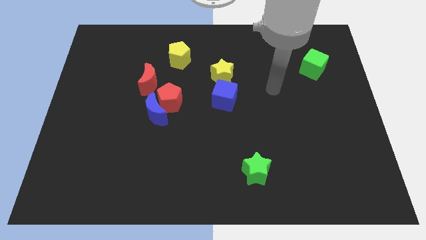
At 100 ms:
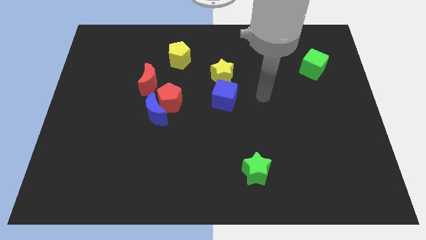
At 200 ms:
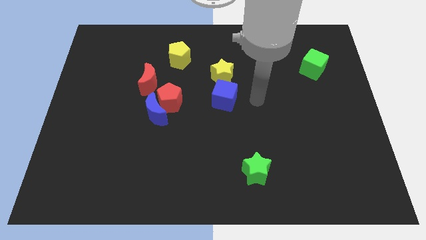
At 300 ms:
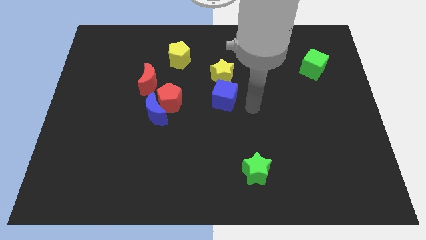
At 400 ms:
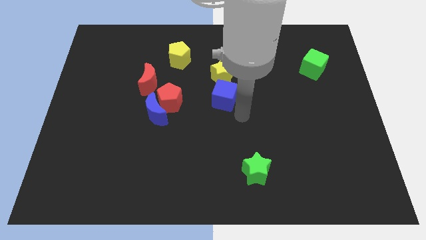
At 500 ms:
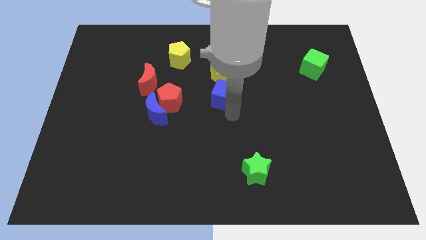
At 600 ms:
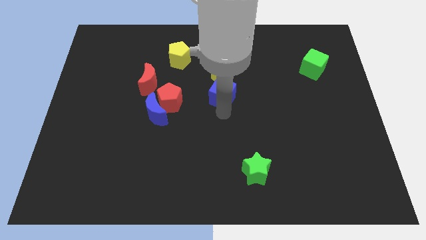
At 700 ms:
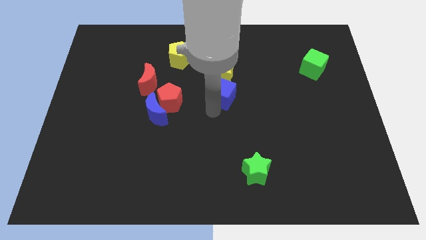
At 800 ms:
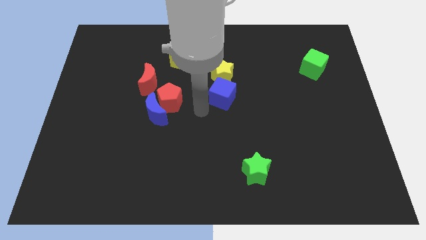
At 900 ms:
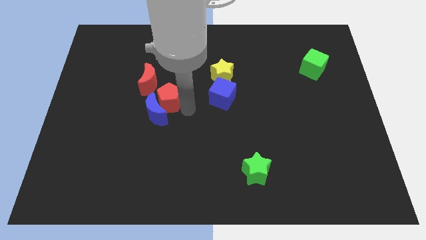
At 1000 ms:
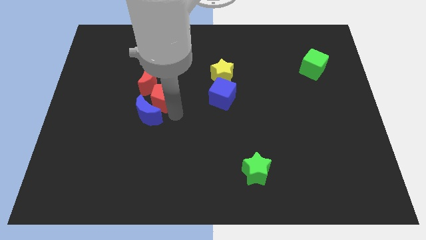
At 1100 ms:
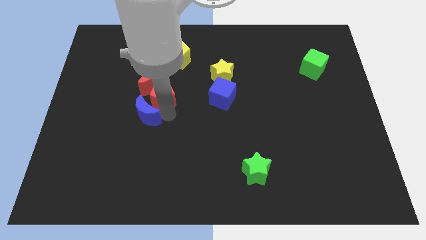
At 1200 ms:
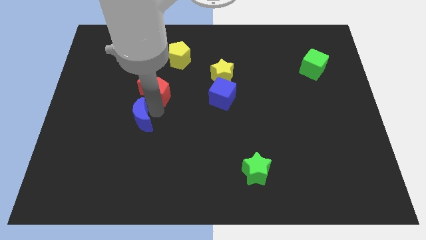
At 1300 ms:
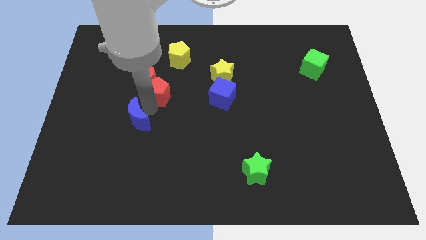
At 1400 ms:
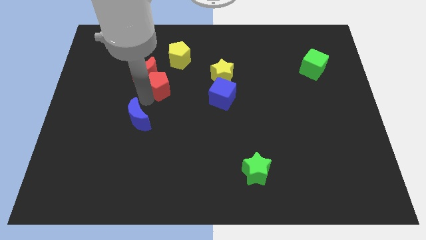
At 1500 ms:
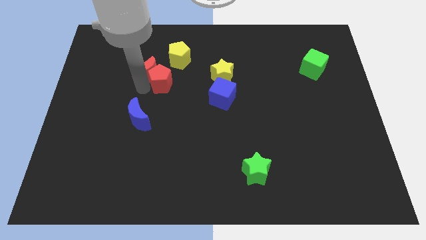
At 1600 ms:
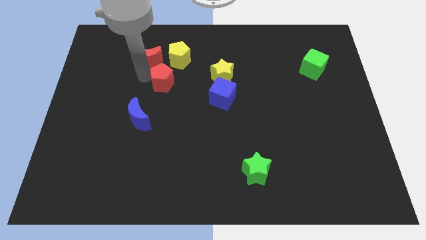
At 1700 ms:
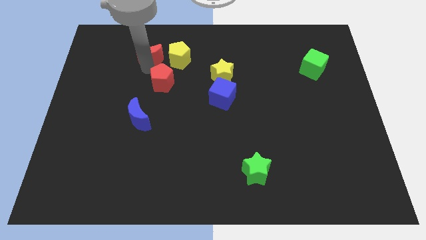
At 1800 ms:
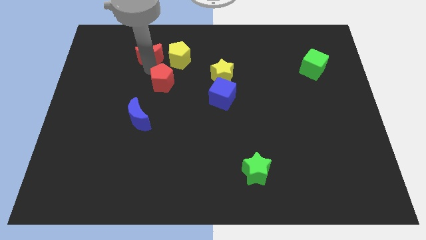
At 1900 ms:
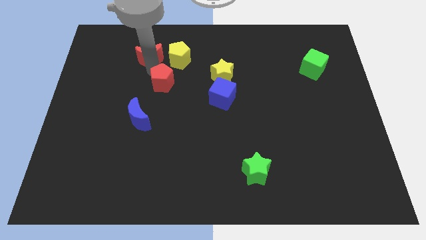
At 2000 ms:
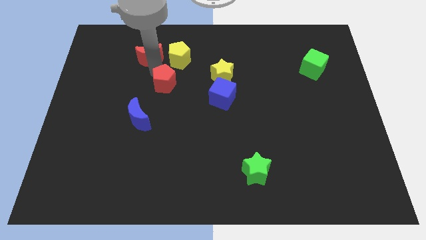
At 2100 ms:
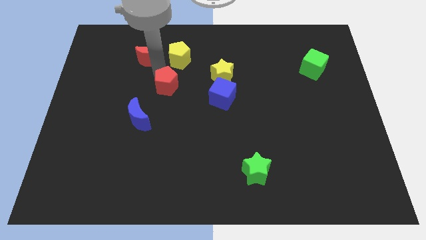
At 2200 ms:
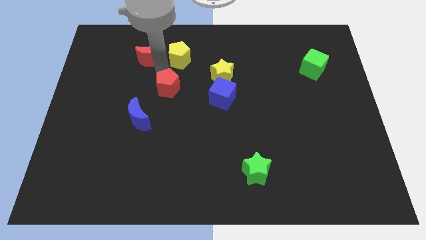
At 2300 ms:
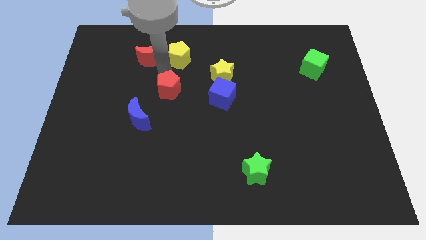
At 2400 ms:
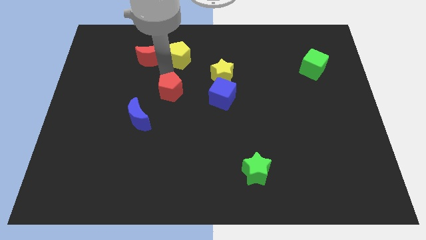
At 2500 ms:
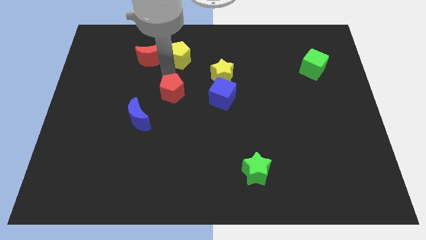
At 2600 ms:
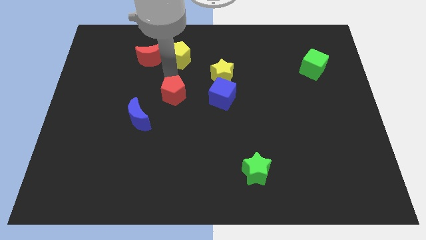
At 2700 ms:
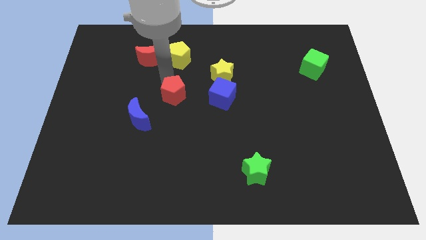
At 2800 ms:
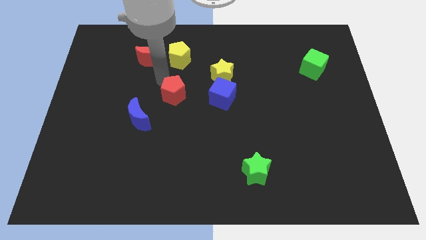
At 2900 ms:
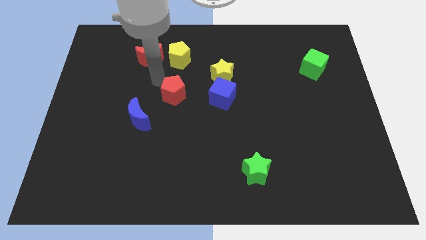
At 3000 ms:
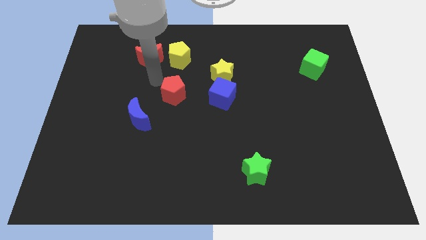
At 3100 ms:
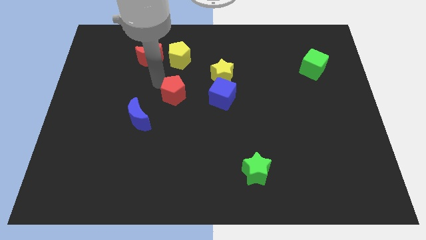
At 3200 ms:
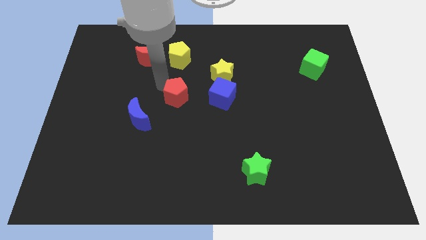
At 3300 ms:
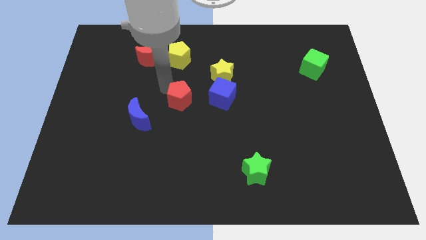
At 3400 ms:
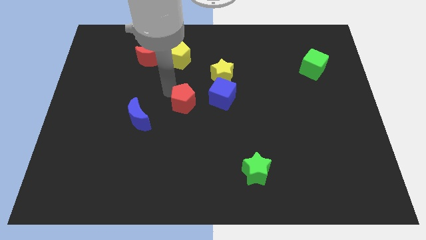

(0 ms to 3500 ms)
move the red pentagon away from the blue moon and red moon

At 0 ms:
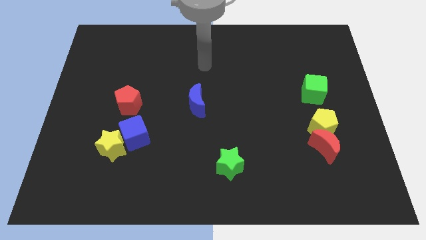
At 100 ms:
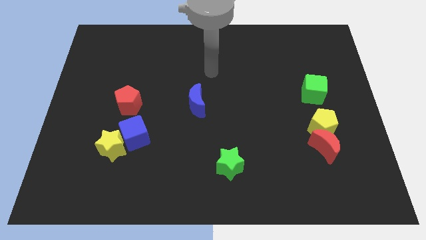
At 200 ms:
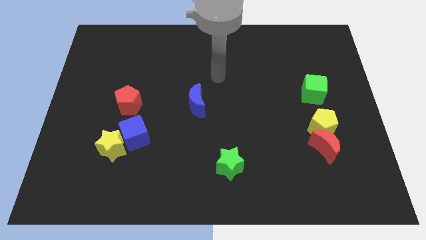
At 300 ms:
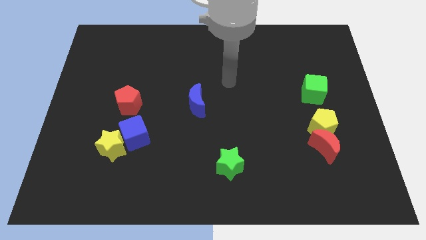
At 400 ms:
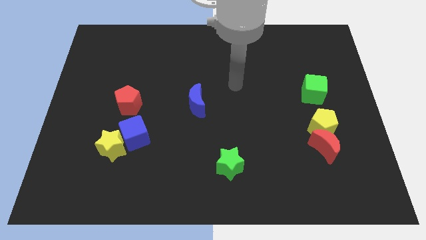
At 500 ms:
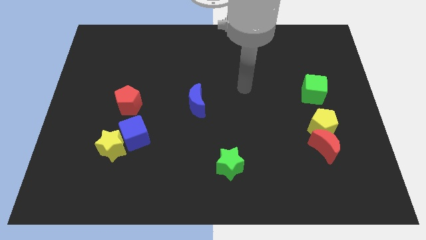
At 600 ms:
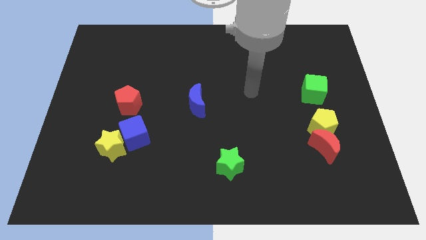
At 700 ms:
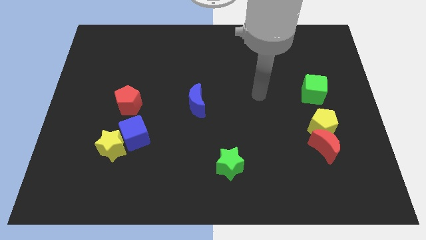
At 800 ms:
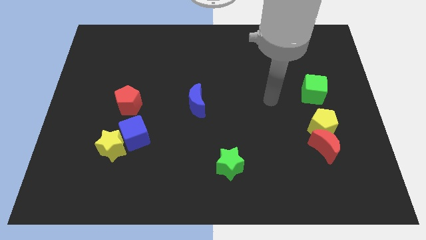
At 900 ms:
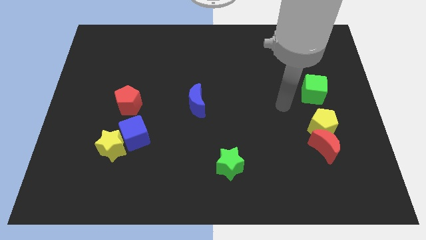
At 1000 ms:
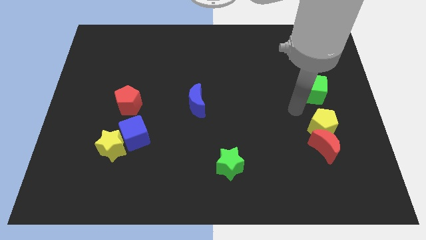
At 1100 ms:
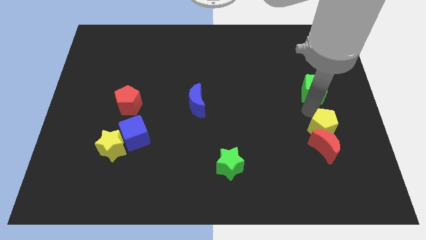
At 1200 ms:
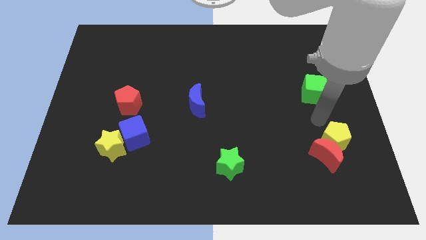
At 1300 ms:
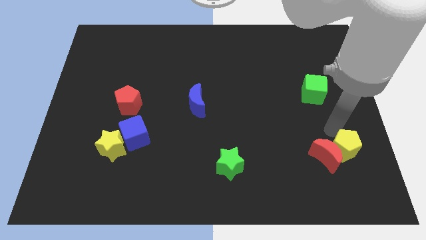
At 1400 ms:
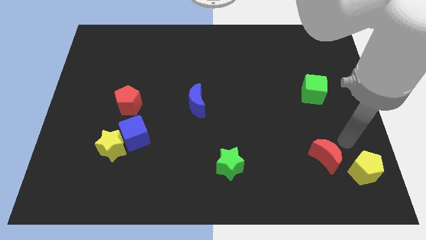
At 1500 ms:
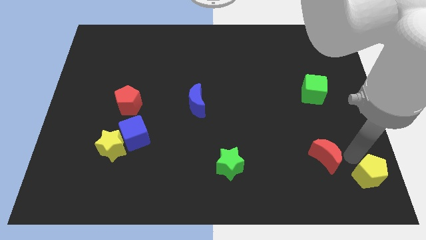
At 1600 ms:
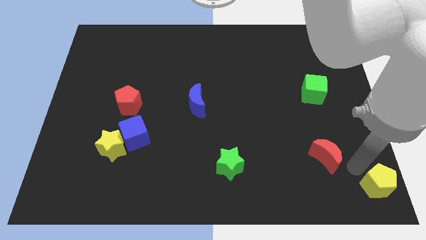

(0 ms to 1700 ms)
separate the red moon from the yellow pentagon

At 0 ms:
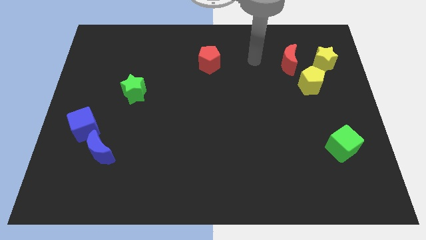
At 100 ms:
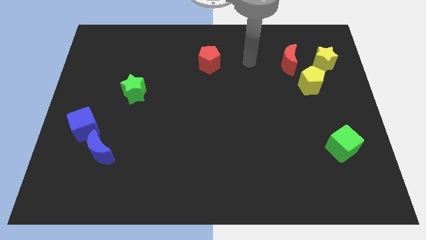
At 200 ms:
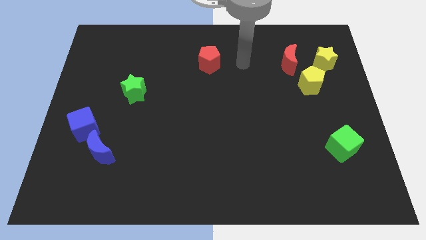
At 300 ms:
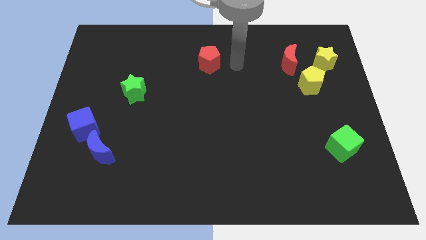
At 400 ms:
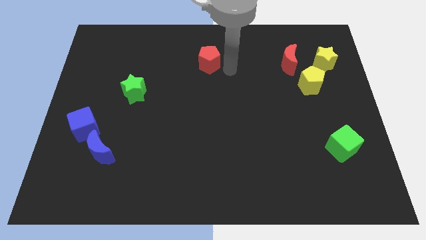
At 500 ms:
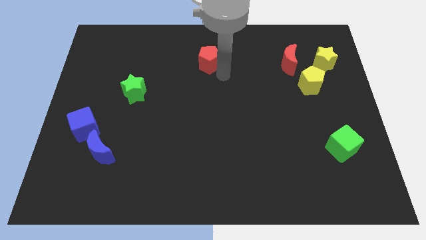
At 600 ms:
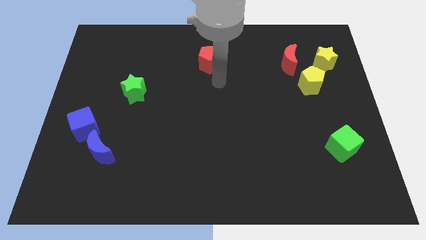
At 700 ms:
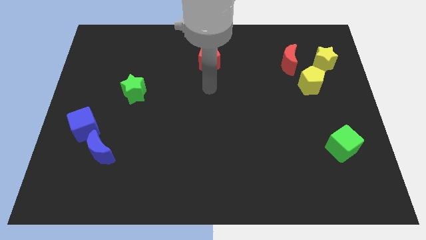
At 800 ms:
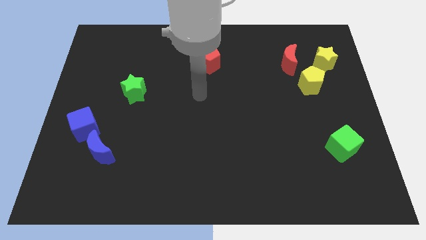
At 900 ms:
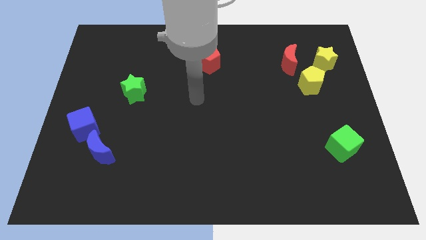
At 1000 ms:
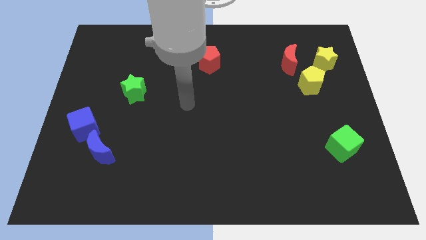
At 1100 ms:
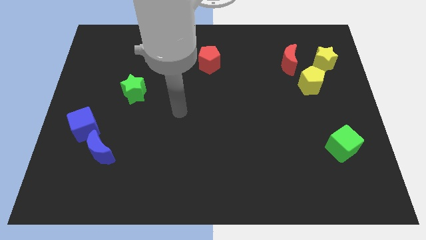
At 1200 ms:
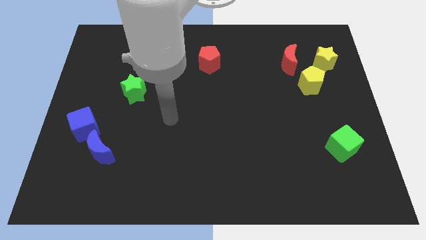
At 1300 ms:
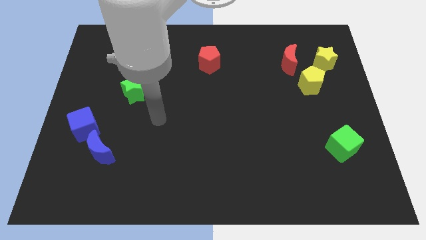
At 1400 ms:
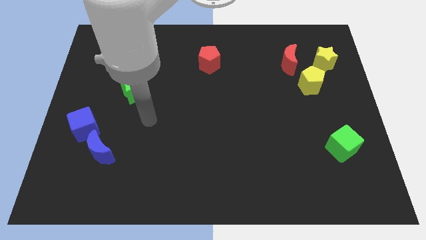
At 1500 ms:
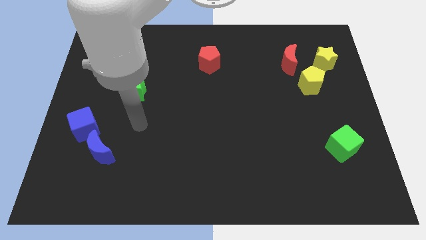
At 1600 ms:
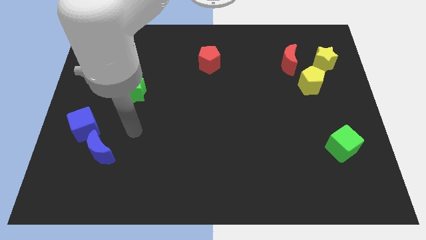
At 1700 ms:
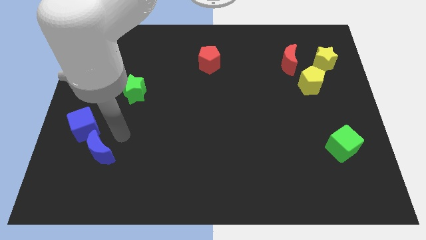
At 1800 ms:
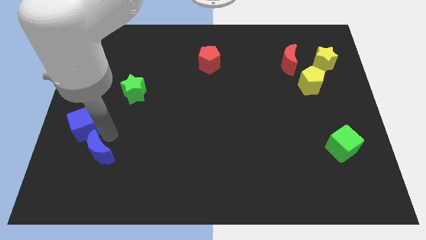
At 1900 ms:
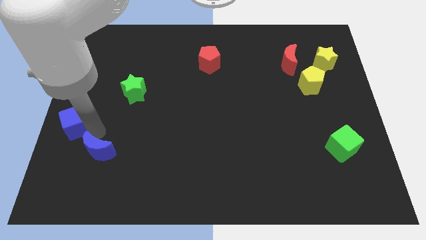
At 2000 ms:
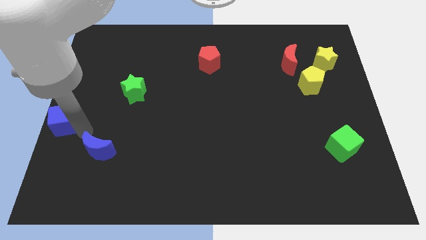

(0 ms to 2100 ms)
separate the blue moon from the blue cube

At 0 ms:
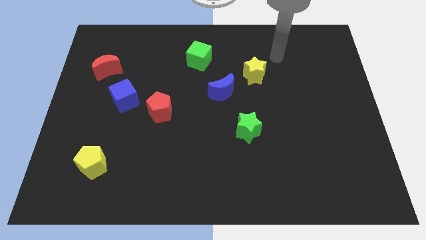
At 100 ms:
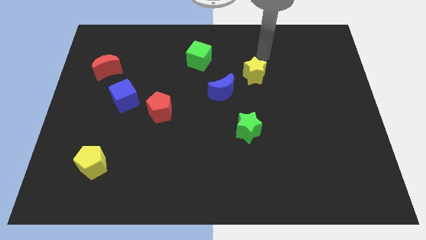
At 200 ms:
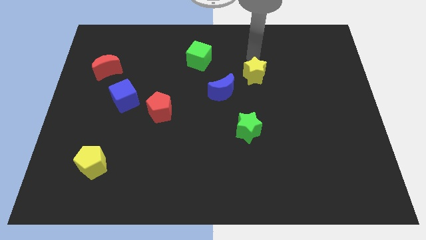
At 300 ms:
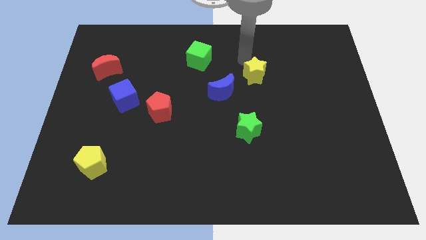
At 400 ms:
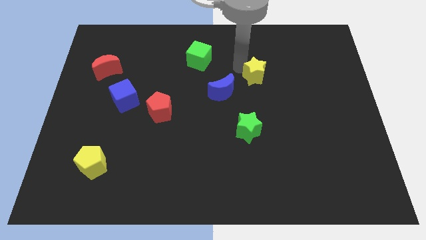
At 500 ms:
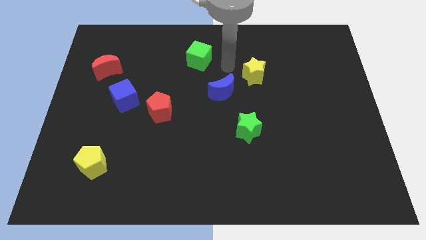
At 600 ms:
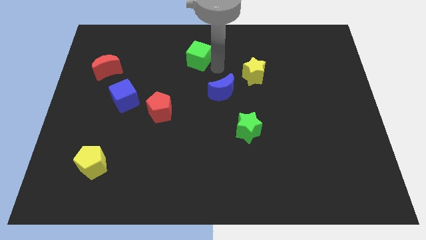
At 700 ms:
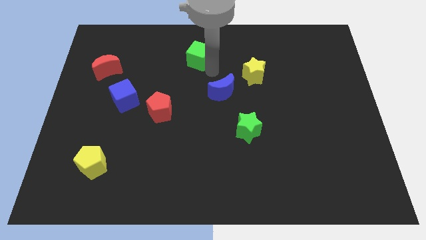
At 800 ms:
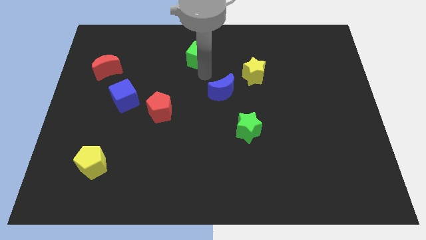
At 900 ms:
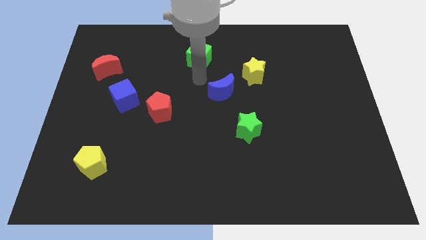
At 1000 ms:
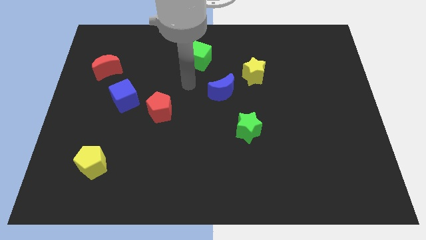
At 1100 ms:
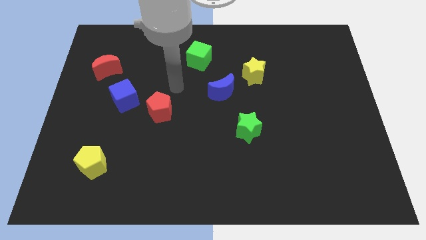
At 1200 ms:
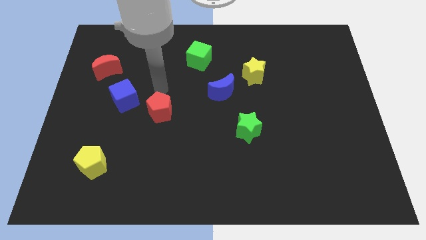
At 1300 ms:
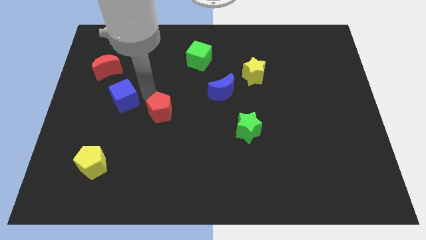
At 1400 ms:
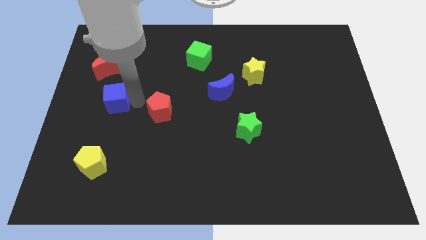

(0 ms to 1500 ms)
separate the red pentagon from the blue cube

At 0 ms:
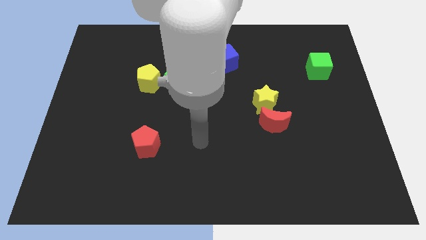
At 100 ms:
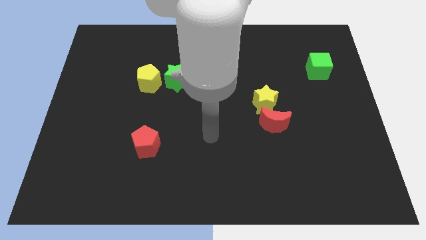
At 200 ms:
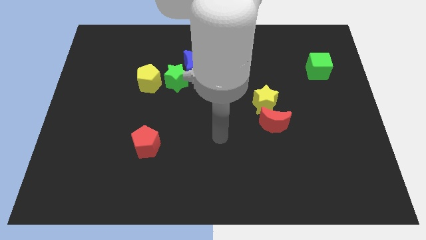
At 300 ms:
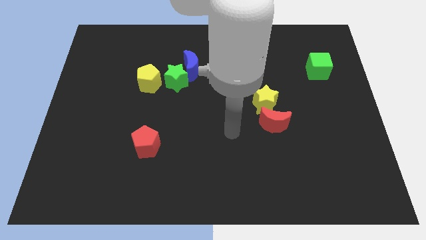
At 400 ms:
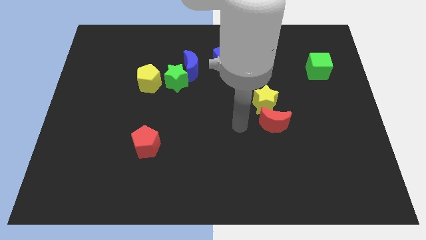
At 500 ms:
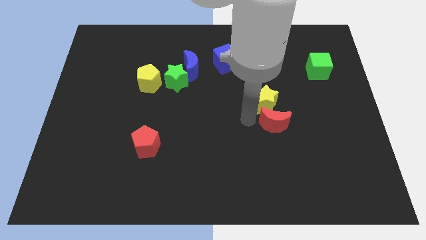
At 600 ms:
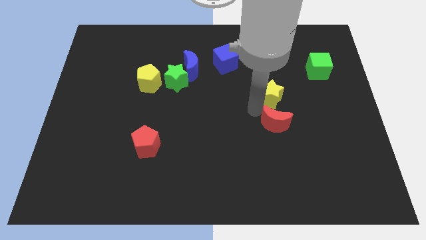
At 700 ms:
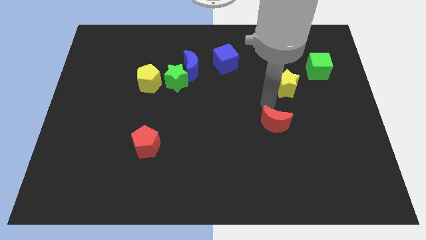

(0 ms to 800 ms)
pull the red moon apart from the yellow star
